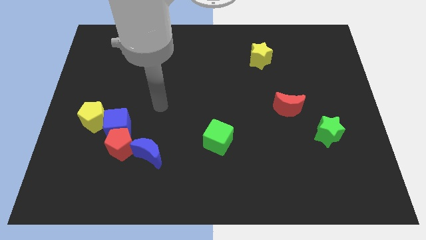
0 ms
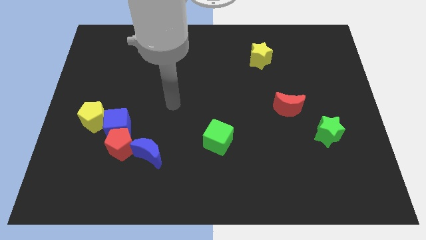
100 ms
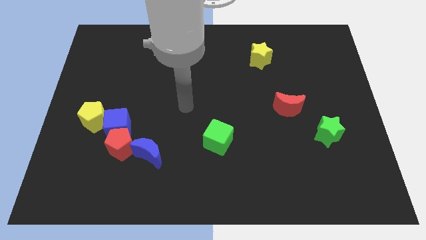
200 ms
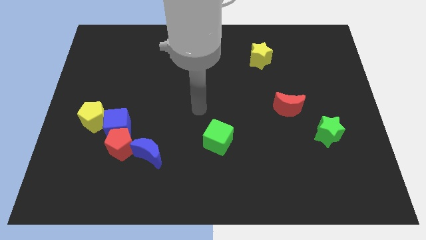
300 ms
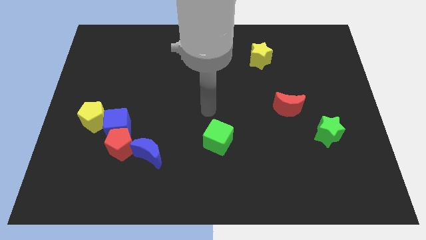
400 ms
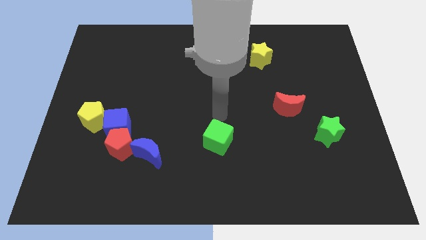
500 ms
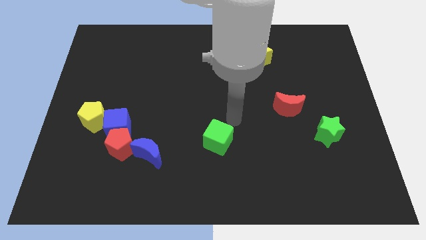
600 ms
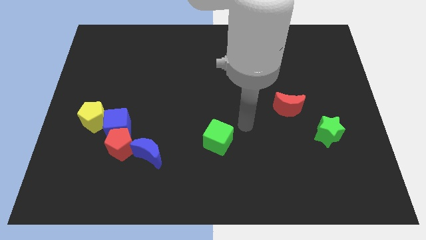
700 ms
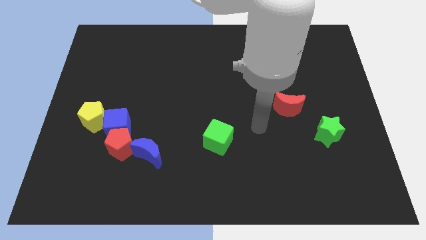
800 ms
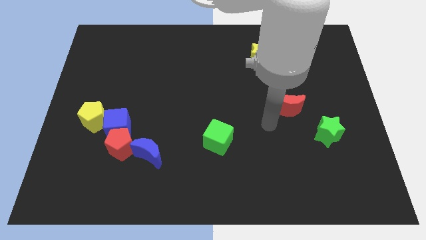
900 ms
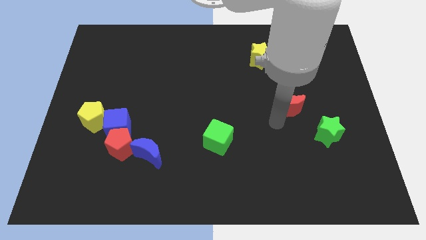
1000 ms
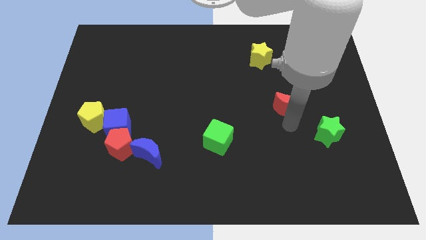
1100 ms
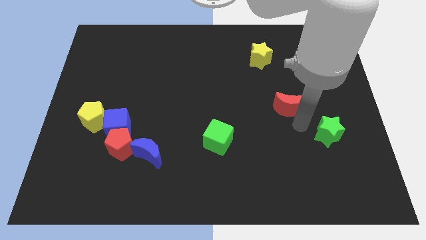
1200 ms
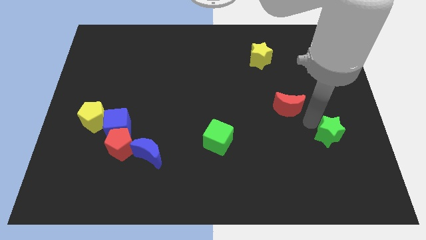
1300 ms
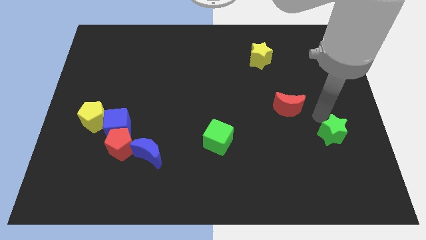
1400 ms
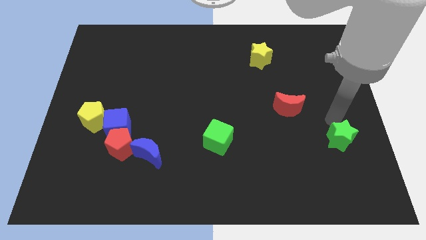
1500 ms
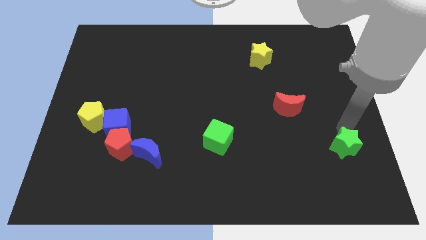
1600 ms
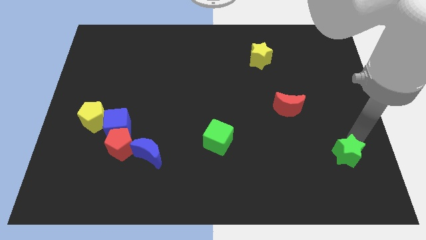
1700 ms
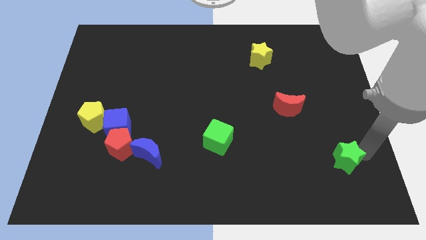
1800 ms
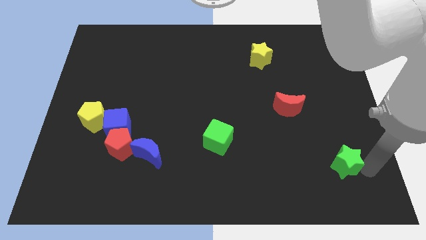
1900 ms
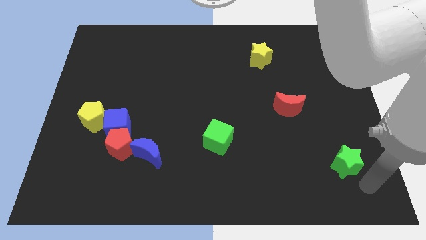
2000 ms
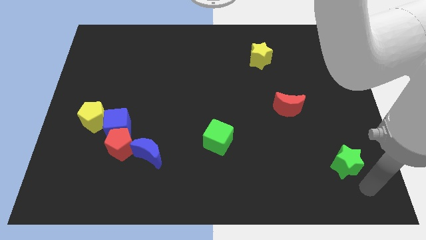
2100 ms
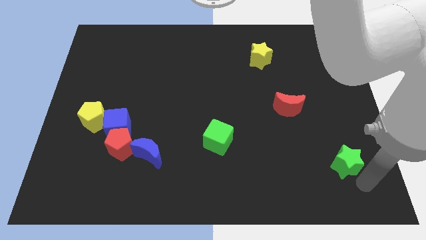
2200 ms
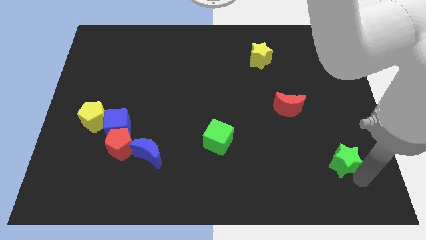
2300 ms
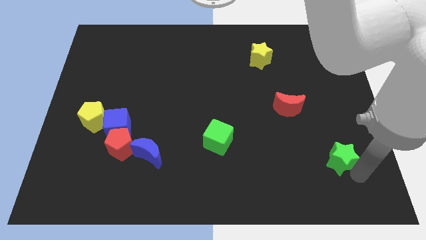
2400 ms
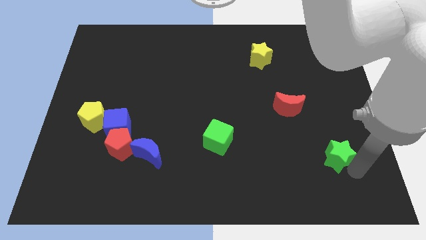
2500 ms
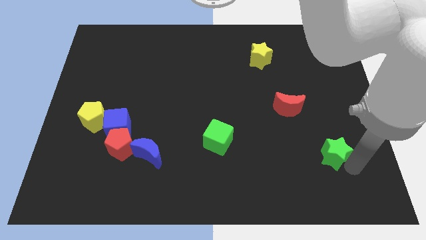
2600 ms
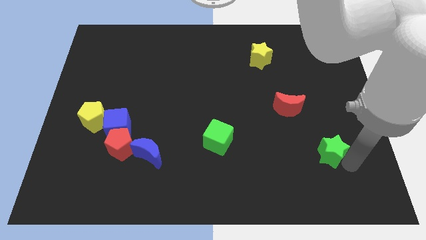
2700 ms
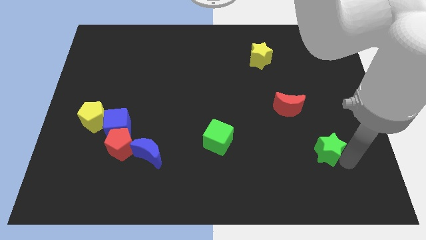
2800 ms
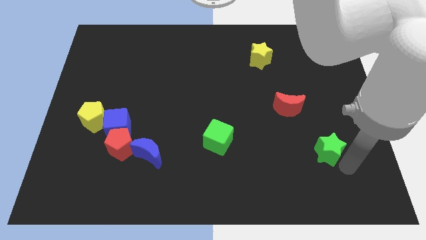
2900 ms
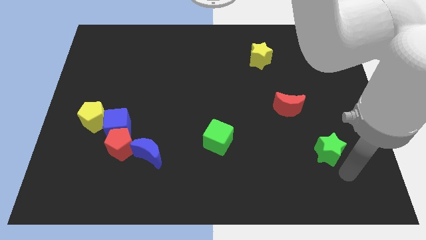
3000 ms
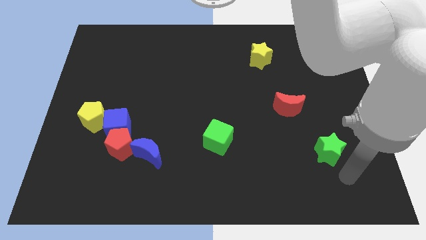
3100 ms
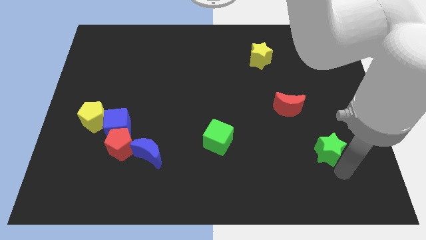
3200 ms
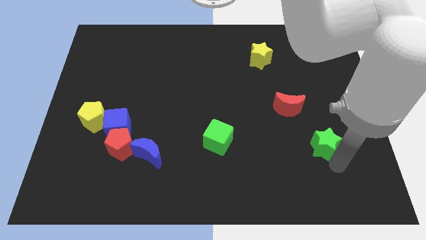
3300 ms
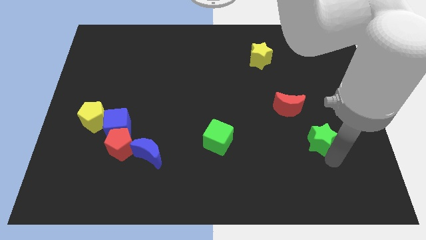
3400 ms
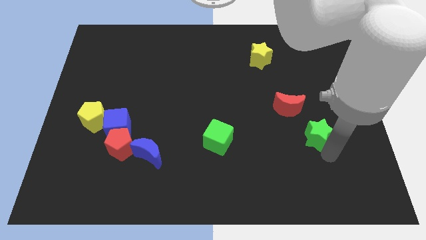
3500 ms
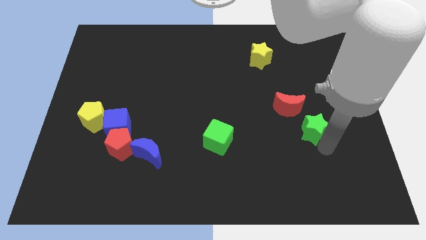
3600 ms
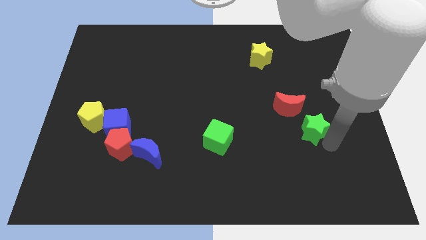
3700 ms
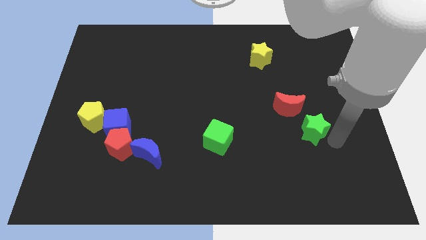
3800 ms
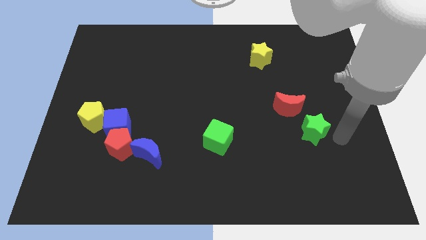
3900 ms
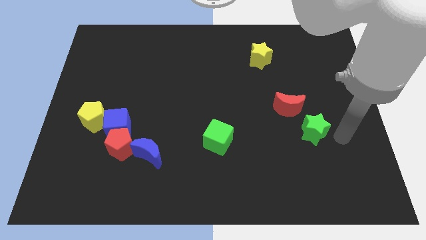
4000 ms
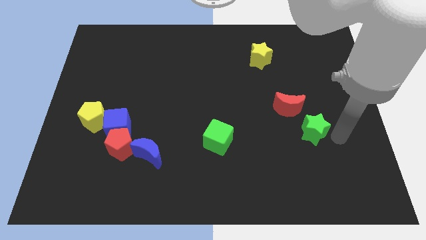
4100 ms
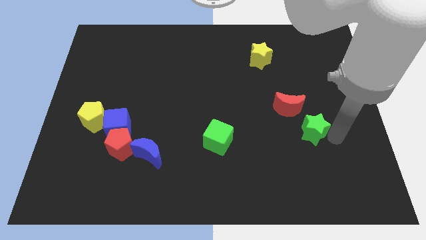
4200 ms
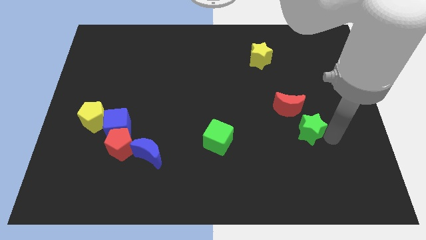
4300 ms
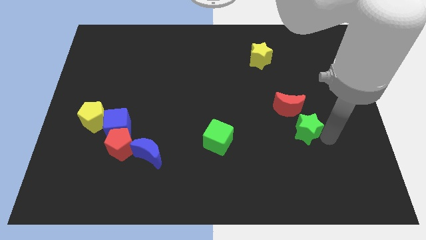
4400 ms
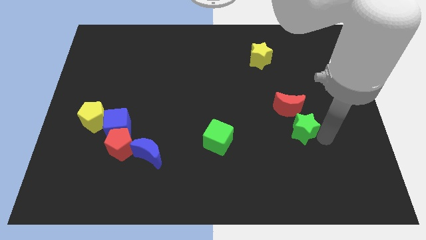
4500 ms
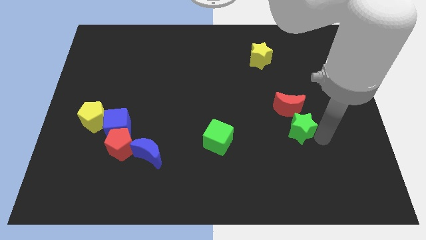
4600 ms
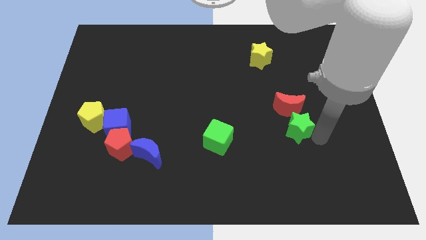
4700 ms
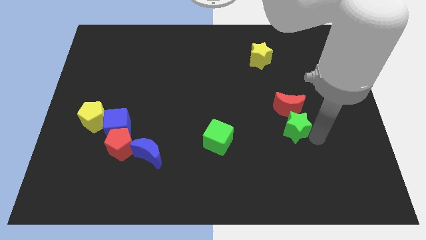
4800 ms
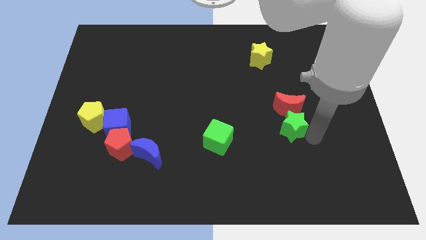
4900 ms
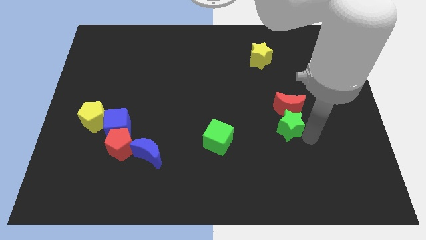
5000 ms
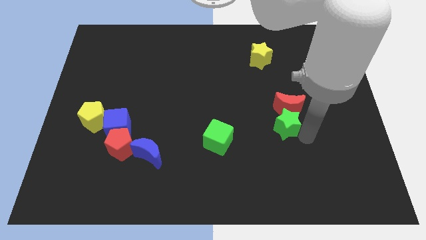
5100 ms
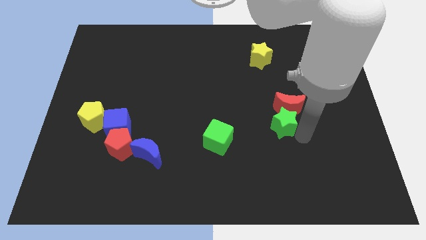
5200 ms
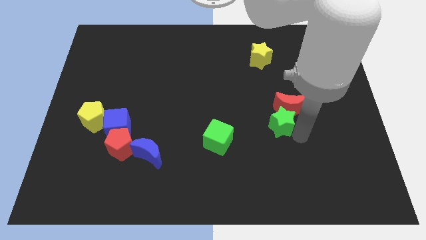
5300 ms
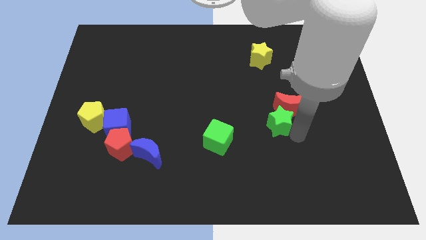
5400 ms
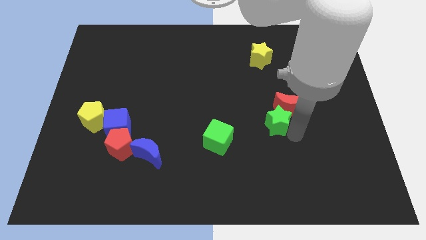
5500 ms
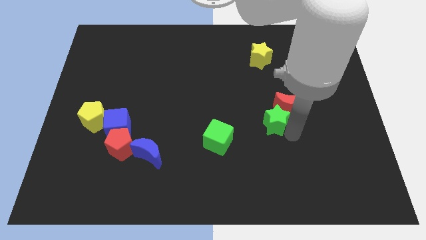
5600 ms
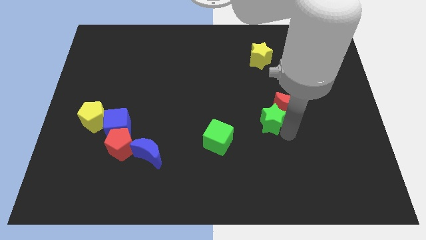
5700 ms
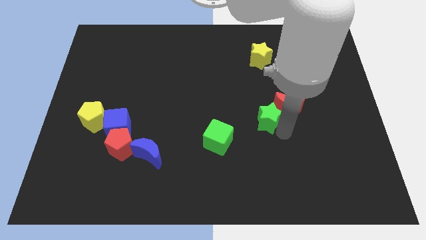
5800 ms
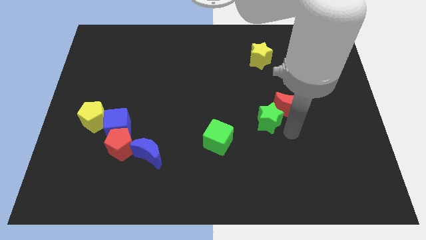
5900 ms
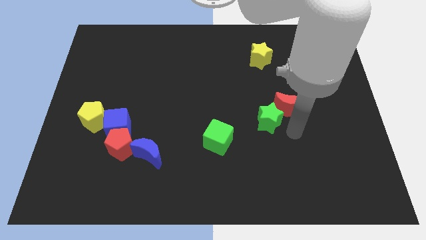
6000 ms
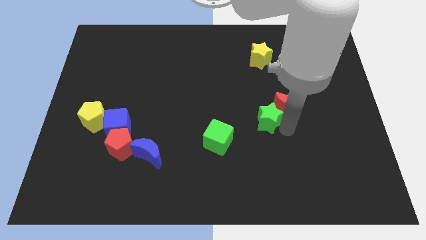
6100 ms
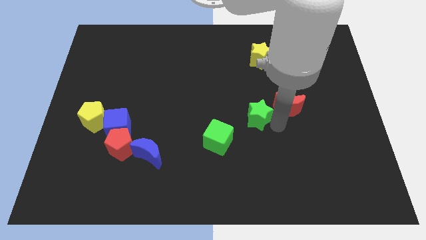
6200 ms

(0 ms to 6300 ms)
move the green star to the center
